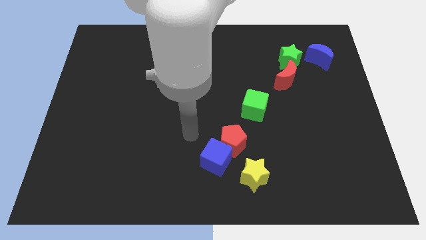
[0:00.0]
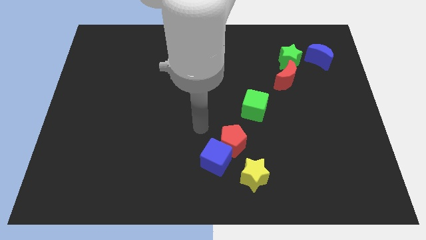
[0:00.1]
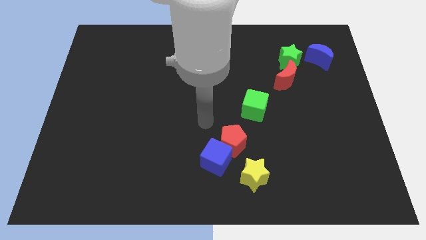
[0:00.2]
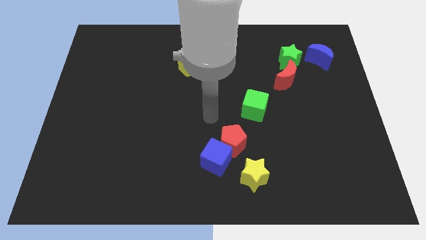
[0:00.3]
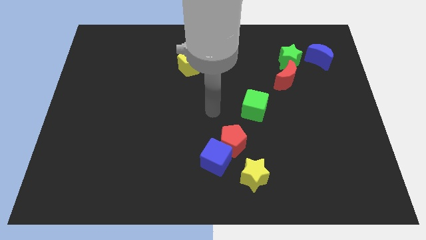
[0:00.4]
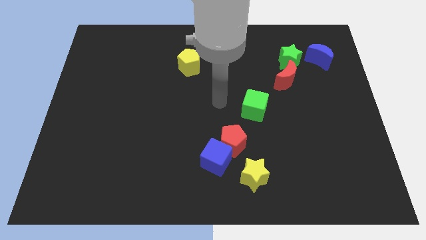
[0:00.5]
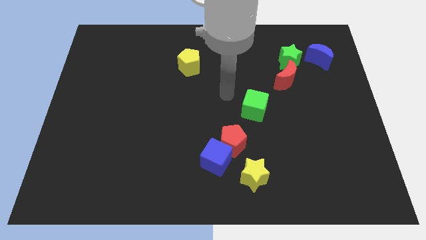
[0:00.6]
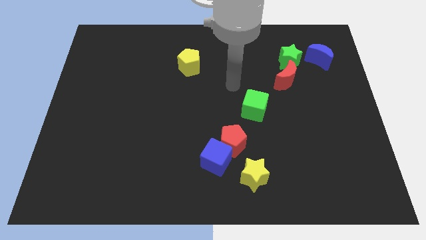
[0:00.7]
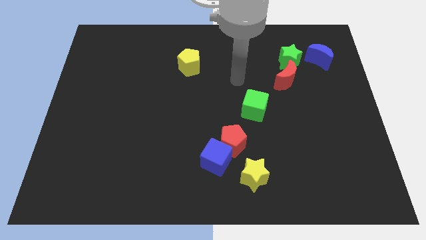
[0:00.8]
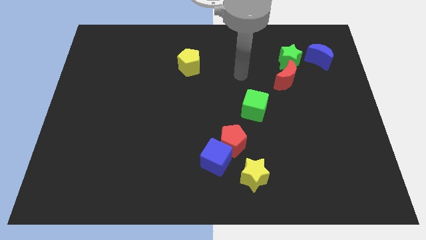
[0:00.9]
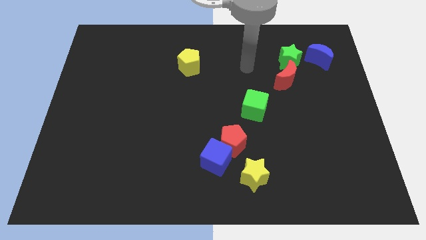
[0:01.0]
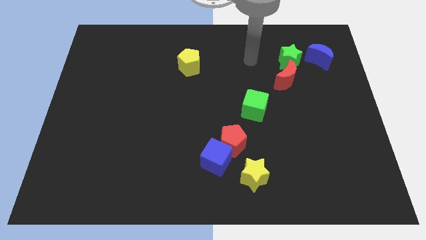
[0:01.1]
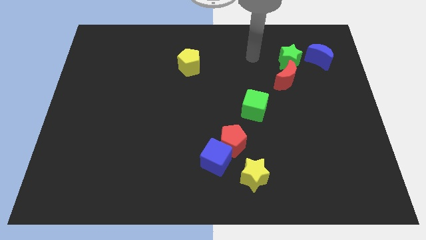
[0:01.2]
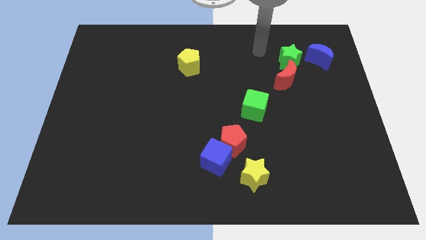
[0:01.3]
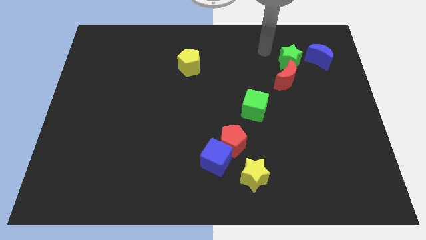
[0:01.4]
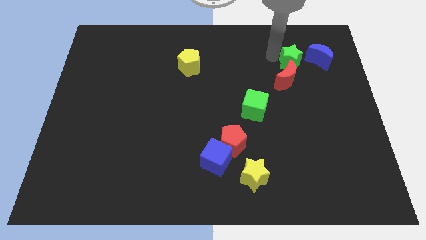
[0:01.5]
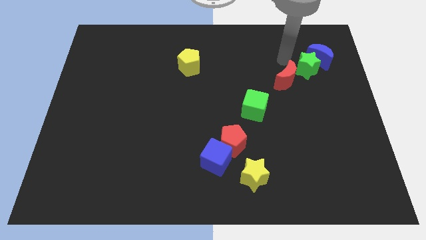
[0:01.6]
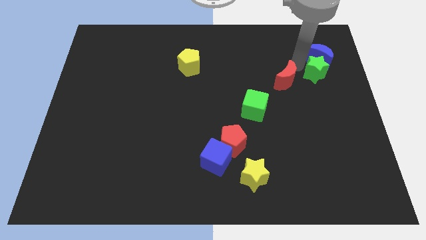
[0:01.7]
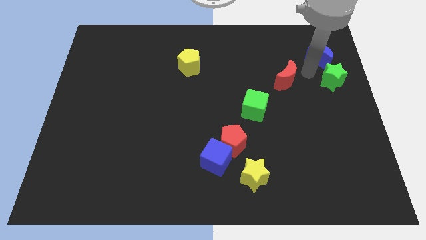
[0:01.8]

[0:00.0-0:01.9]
separate the red moon from the green star

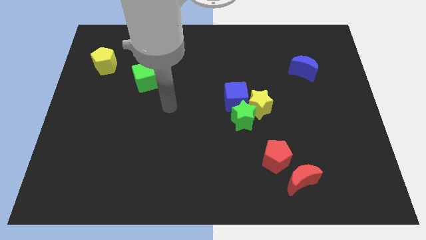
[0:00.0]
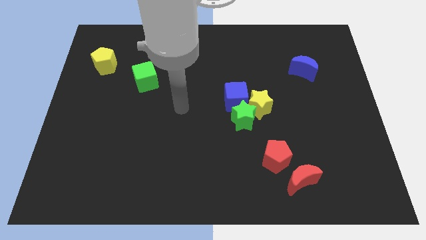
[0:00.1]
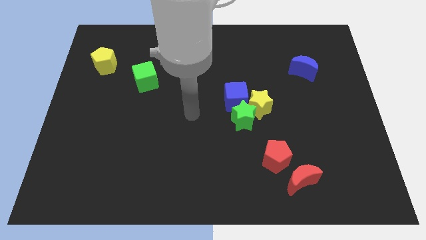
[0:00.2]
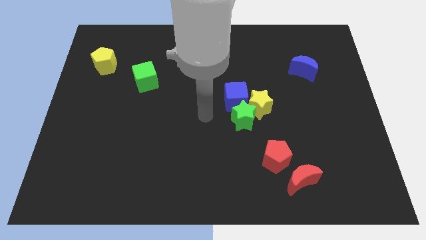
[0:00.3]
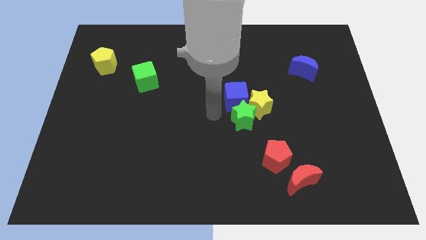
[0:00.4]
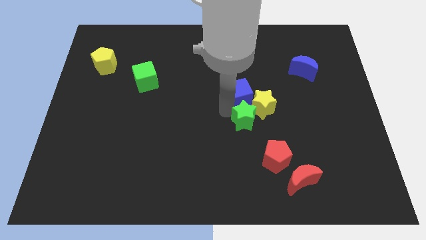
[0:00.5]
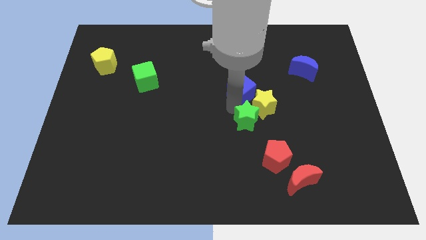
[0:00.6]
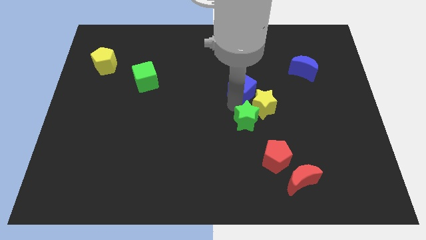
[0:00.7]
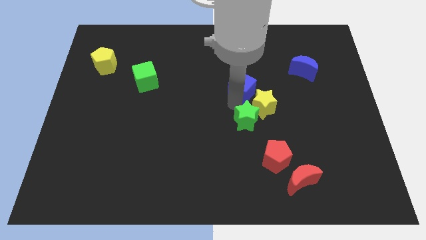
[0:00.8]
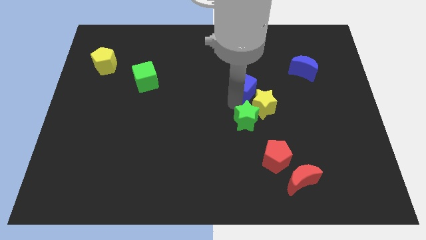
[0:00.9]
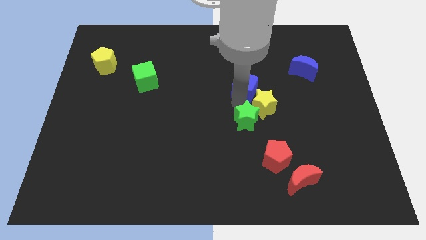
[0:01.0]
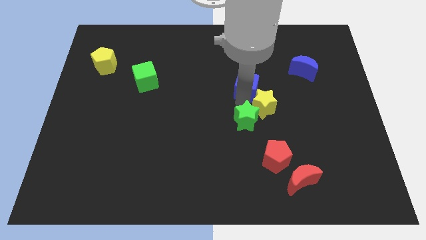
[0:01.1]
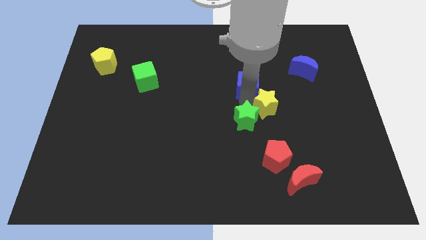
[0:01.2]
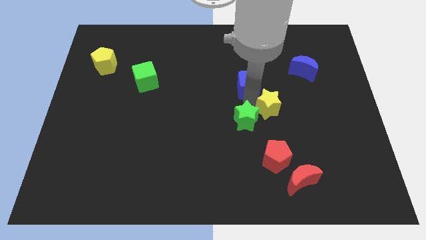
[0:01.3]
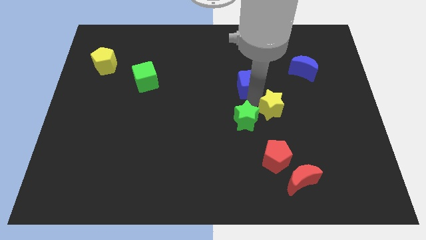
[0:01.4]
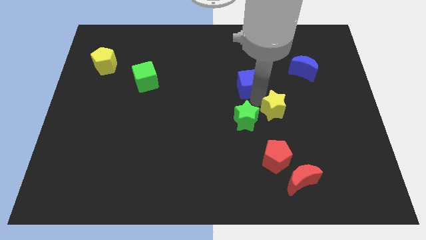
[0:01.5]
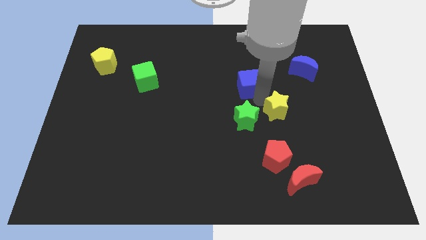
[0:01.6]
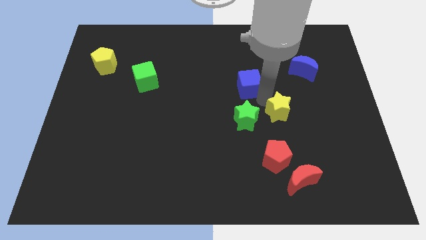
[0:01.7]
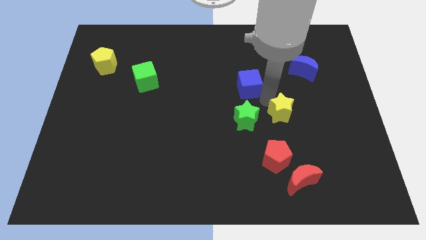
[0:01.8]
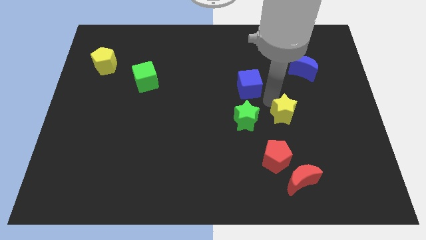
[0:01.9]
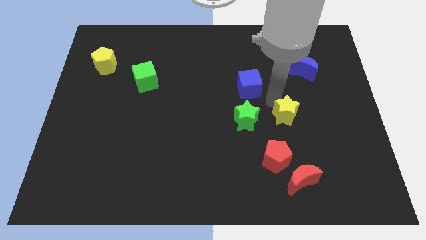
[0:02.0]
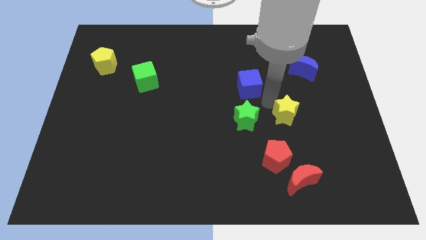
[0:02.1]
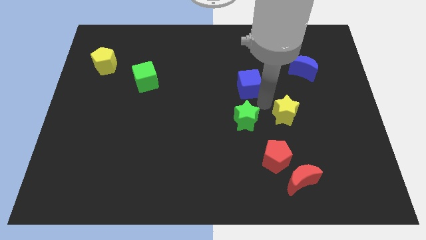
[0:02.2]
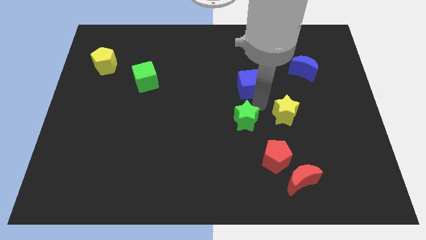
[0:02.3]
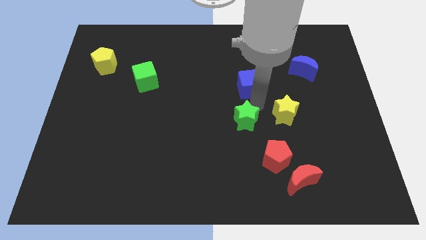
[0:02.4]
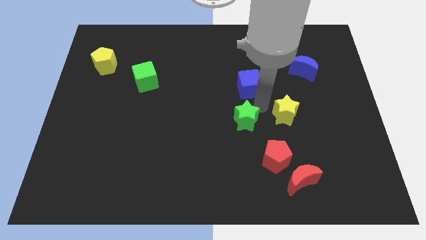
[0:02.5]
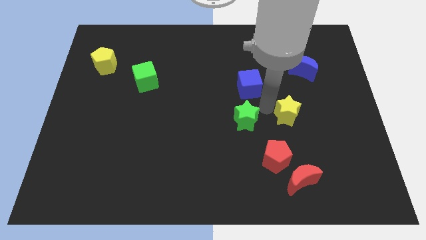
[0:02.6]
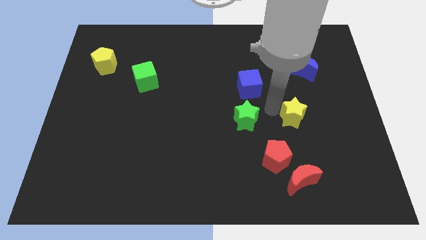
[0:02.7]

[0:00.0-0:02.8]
separate the yellow star from the green star and blue cube

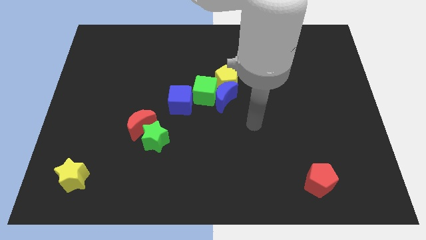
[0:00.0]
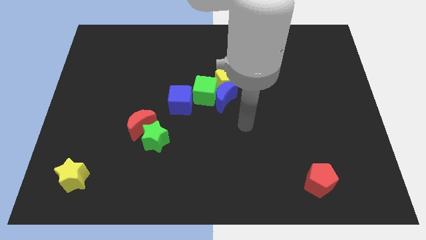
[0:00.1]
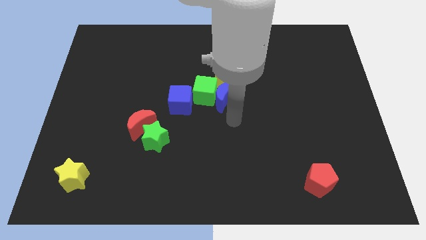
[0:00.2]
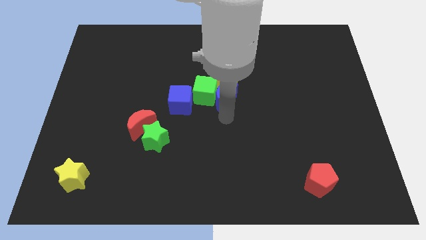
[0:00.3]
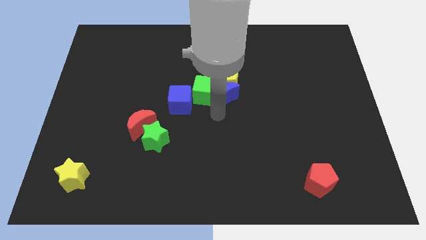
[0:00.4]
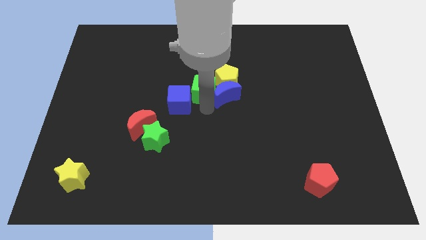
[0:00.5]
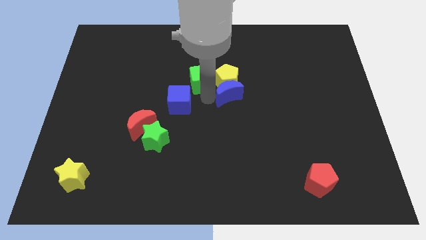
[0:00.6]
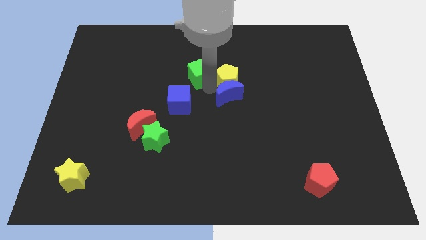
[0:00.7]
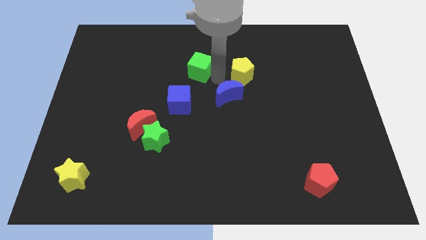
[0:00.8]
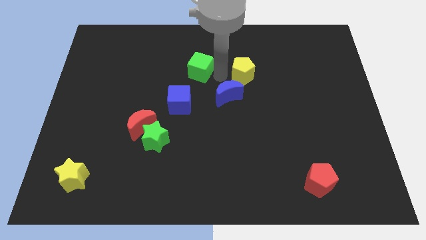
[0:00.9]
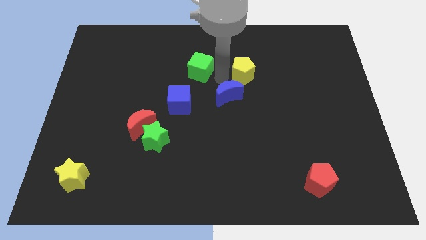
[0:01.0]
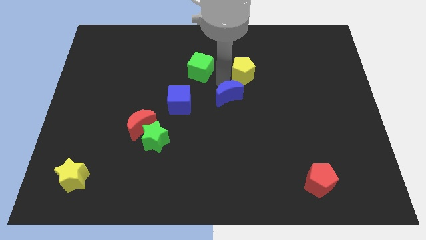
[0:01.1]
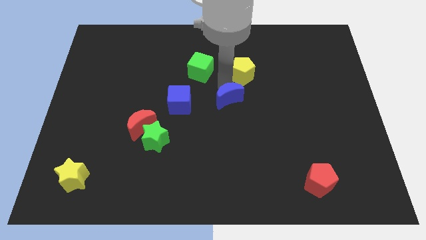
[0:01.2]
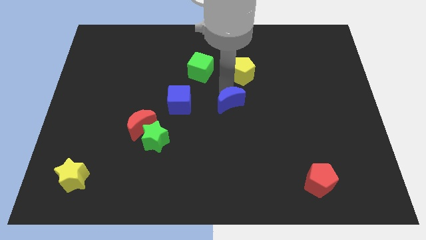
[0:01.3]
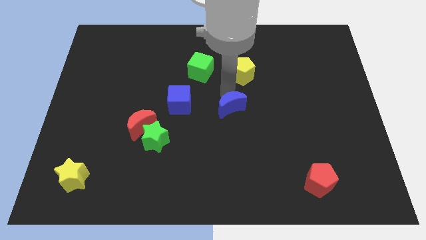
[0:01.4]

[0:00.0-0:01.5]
pull the blue moon apart from the green cube and yellow pentagon

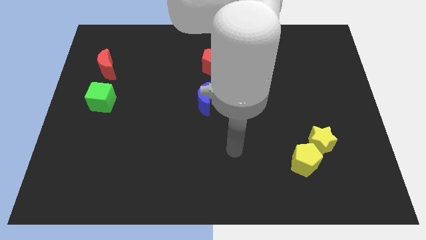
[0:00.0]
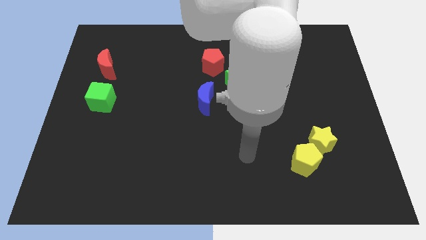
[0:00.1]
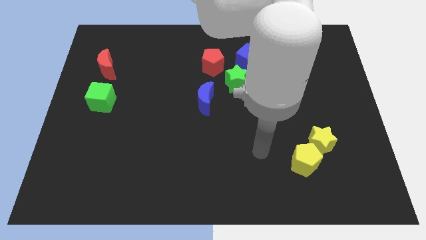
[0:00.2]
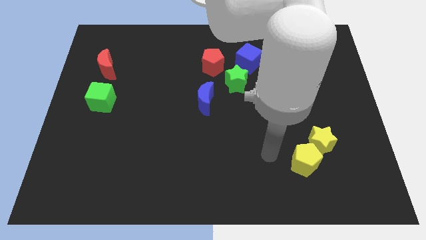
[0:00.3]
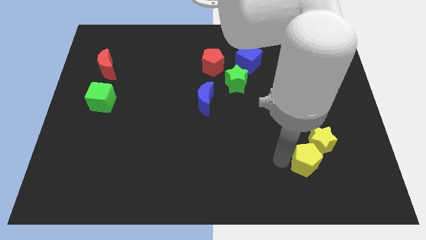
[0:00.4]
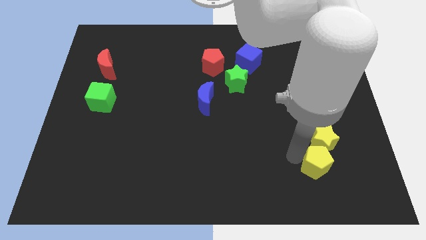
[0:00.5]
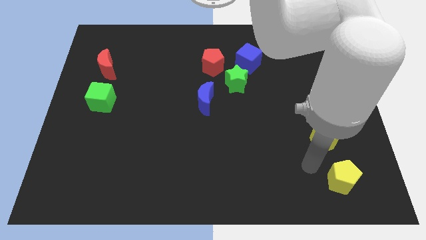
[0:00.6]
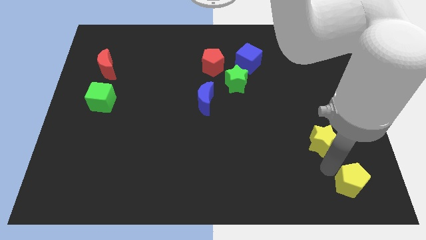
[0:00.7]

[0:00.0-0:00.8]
separate the yellow star from the yellow pentagon

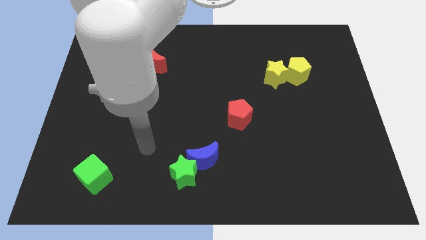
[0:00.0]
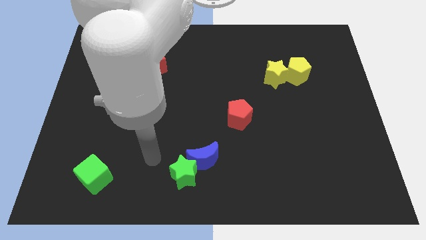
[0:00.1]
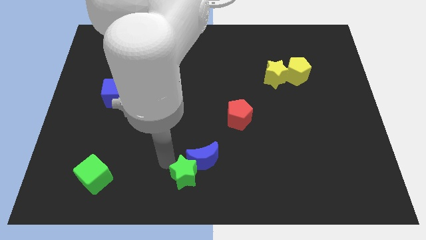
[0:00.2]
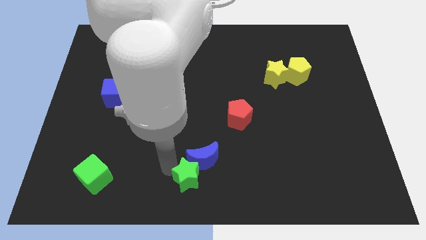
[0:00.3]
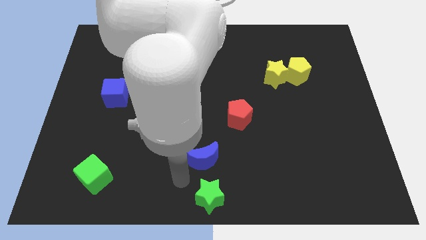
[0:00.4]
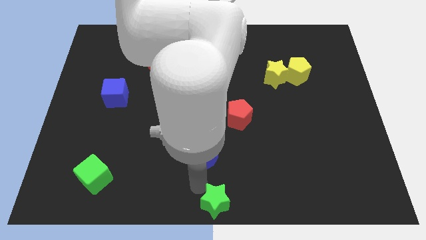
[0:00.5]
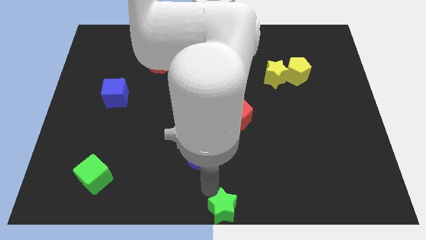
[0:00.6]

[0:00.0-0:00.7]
separate the blue moon from the green star

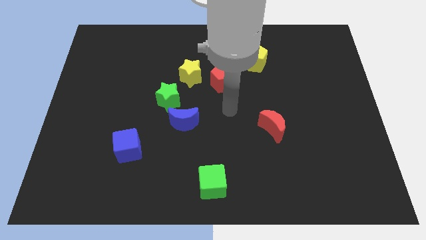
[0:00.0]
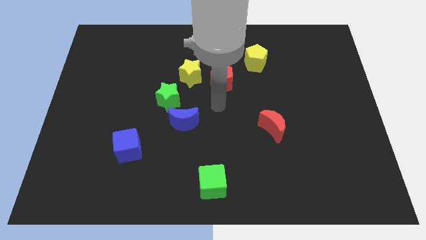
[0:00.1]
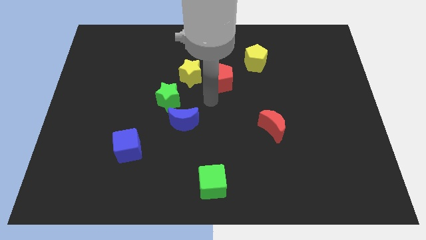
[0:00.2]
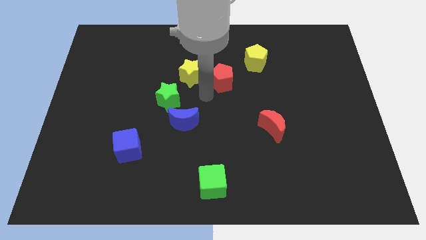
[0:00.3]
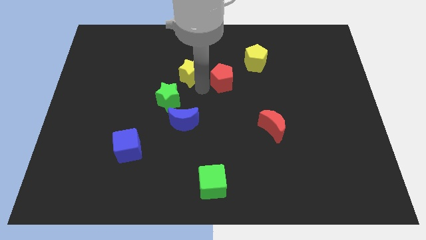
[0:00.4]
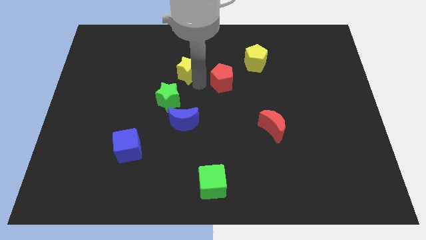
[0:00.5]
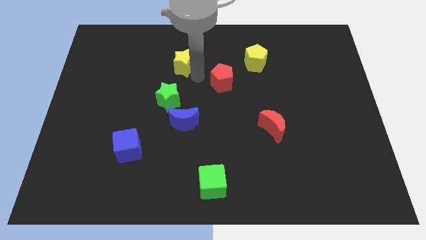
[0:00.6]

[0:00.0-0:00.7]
pull the red pentagon apart from the yellow star

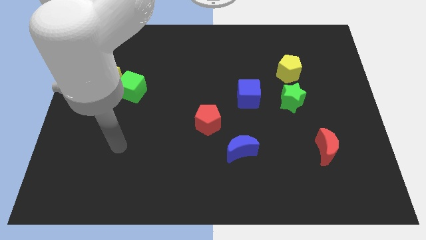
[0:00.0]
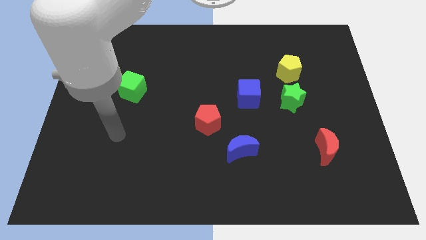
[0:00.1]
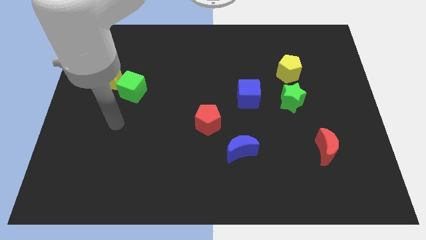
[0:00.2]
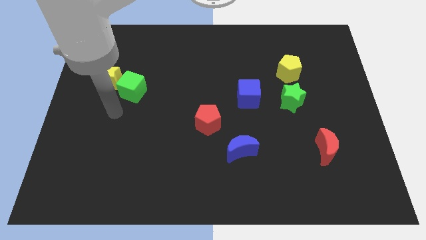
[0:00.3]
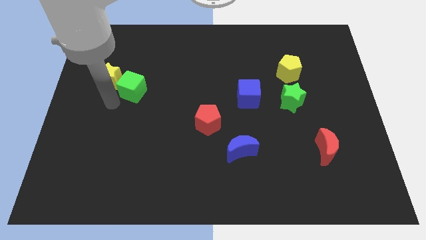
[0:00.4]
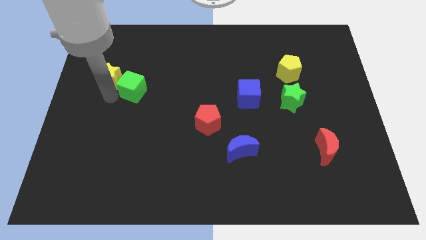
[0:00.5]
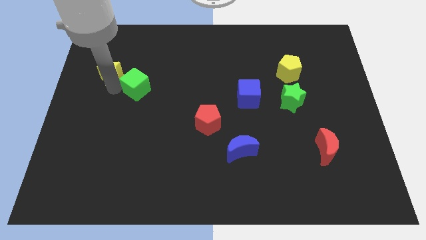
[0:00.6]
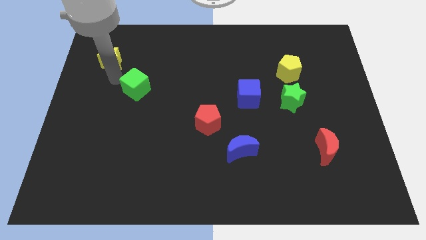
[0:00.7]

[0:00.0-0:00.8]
separate the green cube from the yellow star
